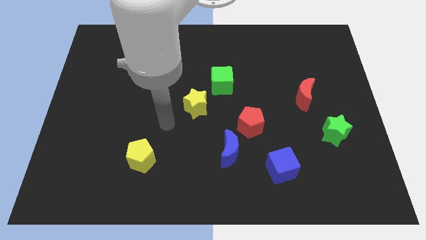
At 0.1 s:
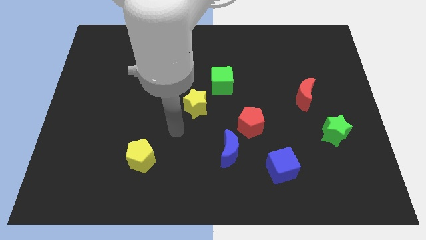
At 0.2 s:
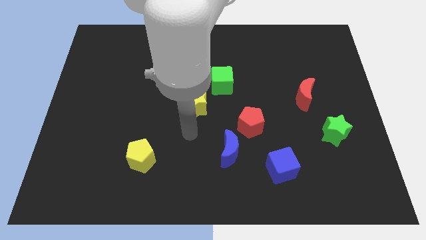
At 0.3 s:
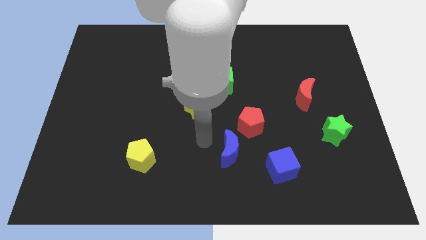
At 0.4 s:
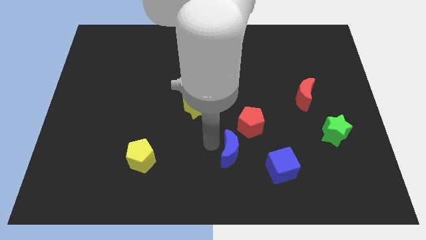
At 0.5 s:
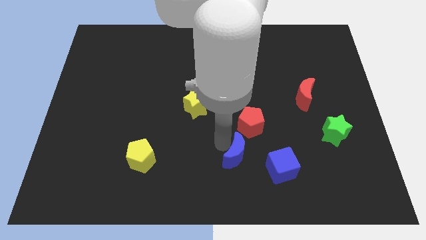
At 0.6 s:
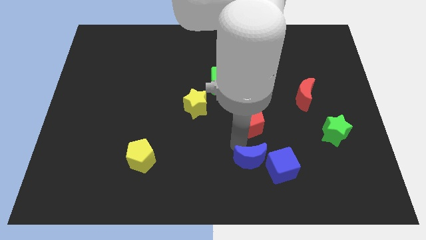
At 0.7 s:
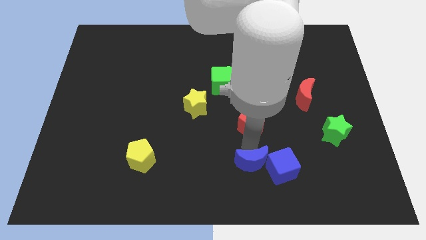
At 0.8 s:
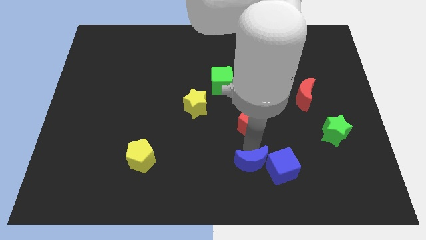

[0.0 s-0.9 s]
move the red pentagon away from the blue moon

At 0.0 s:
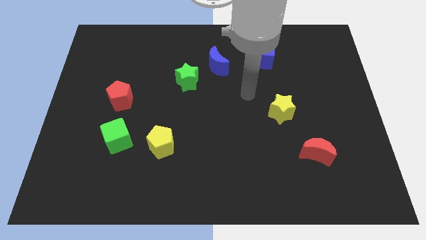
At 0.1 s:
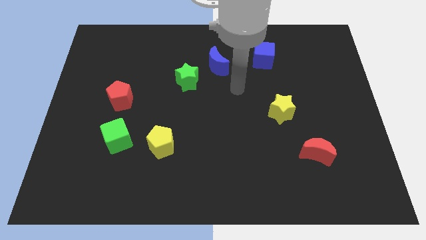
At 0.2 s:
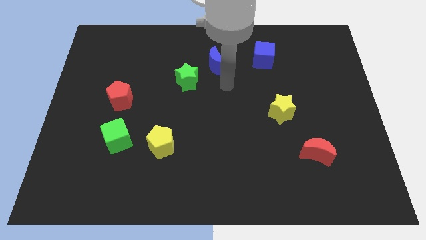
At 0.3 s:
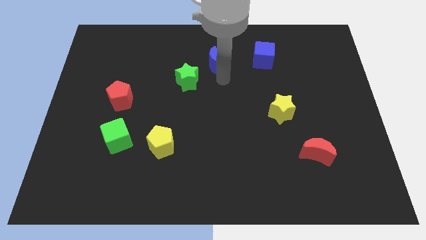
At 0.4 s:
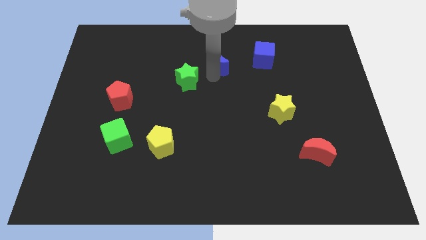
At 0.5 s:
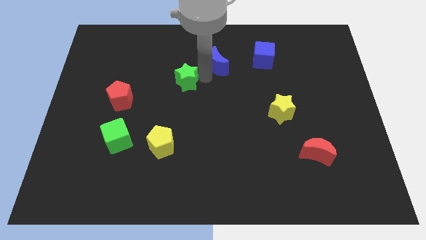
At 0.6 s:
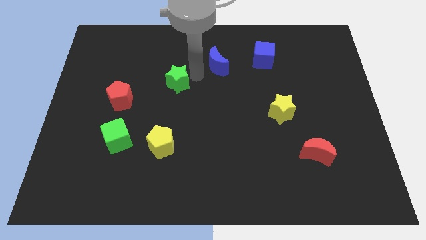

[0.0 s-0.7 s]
separate the blue moon from the green star

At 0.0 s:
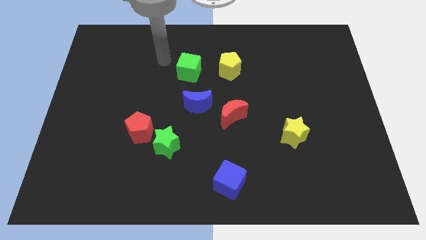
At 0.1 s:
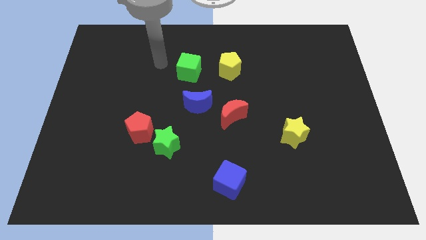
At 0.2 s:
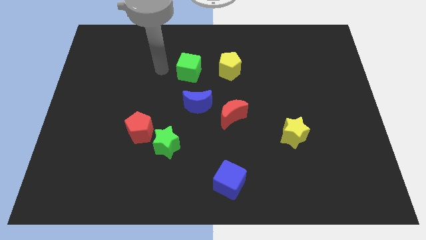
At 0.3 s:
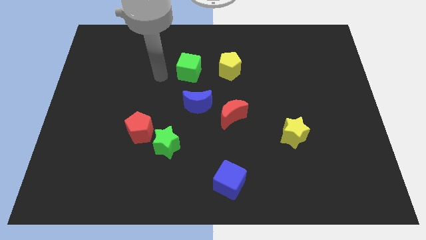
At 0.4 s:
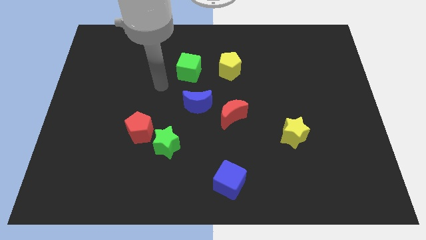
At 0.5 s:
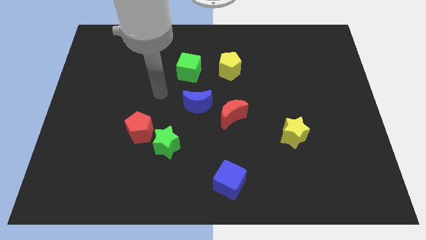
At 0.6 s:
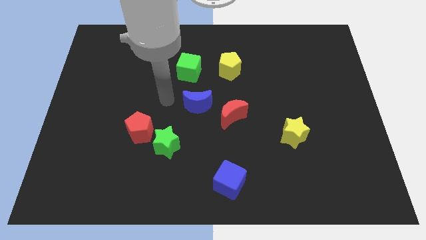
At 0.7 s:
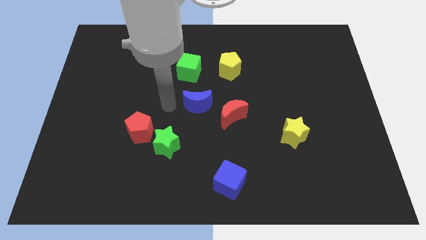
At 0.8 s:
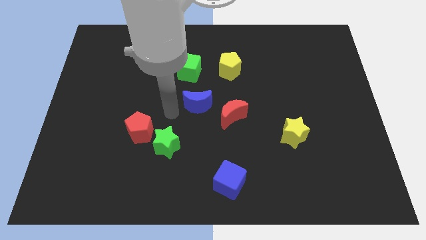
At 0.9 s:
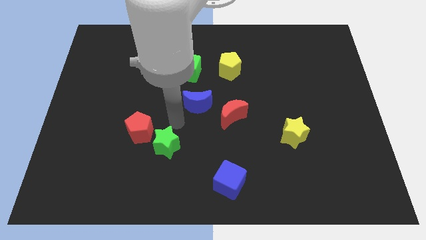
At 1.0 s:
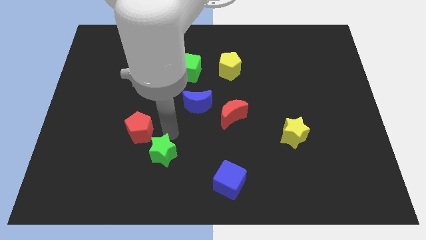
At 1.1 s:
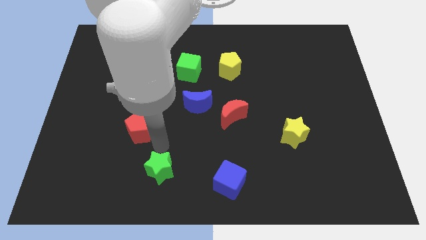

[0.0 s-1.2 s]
move the red pentagon away from the green star

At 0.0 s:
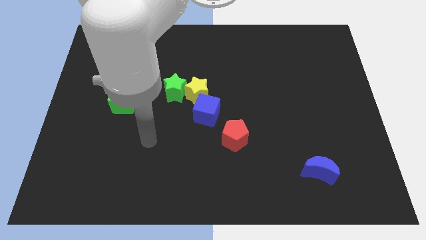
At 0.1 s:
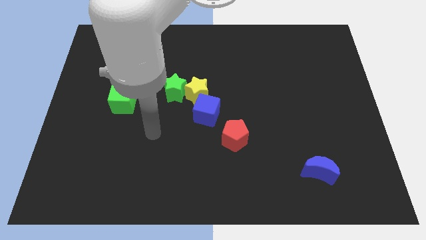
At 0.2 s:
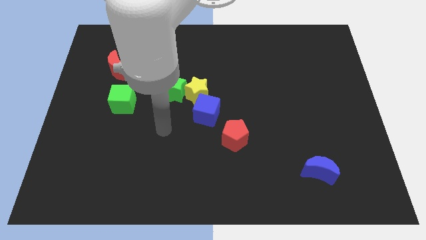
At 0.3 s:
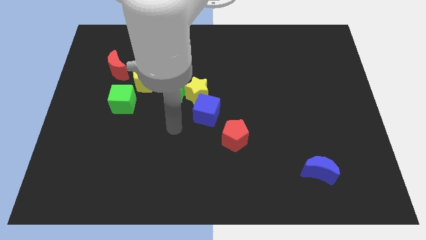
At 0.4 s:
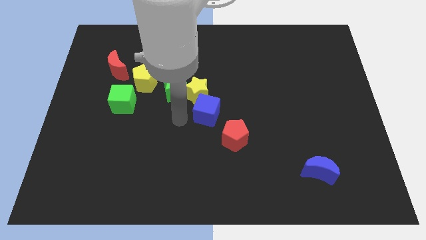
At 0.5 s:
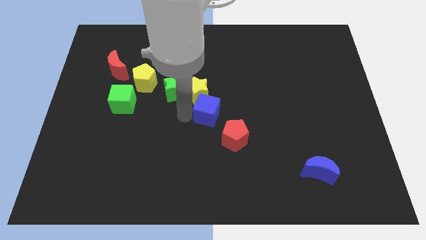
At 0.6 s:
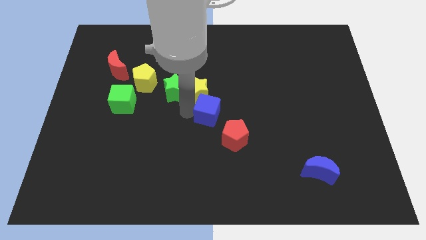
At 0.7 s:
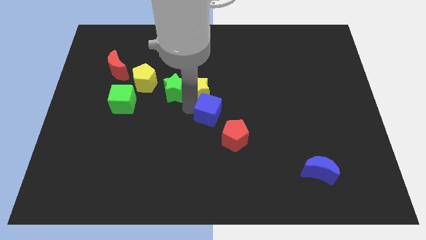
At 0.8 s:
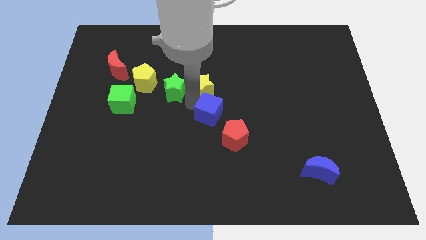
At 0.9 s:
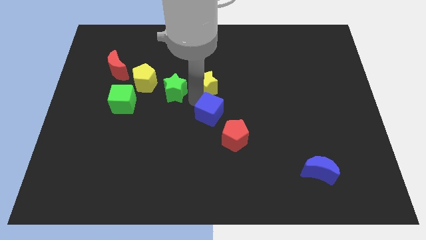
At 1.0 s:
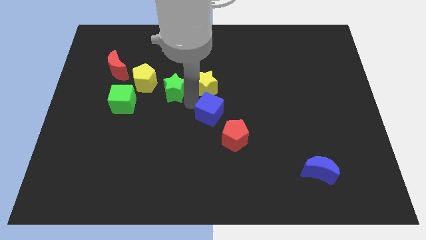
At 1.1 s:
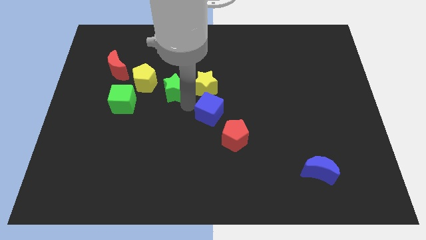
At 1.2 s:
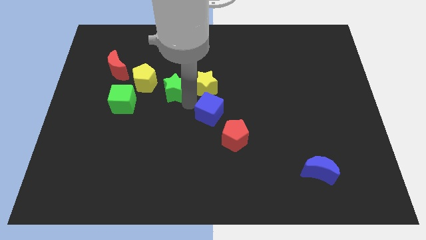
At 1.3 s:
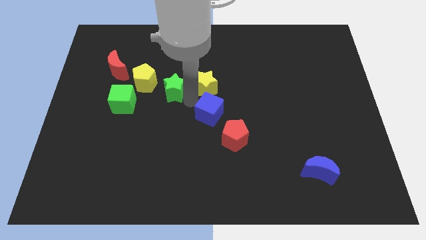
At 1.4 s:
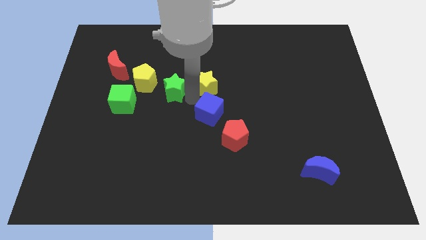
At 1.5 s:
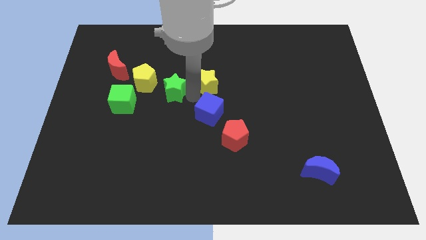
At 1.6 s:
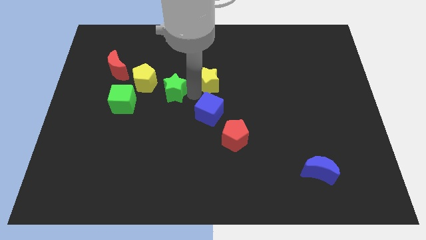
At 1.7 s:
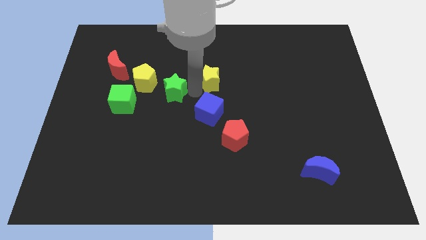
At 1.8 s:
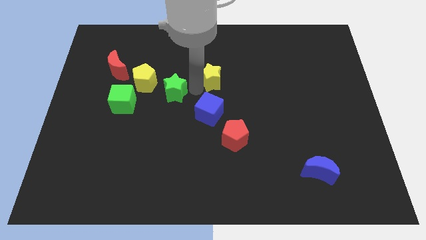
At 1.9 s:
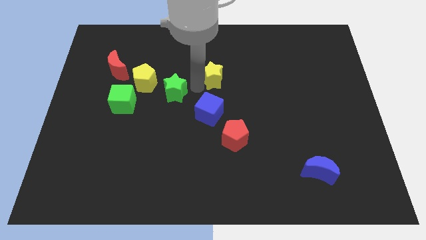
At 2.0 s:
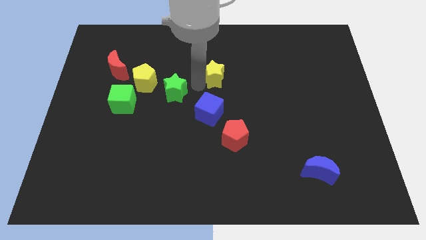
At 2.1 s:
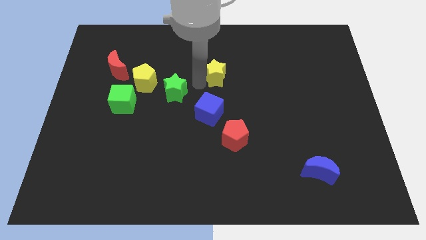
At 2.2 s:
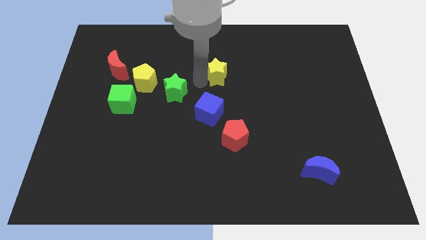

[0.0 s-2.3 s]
move the yellow star away from the green star and blue cube

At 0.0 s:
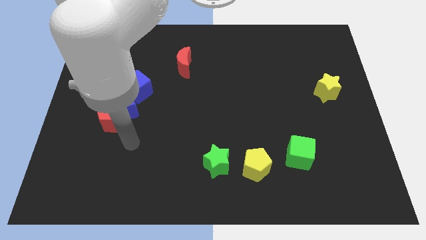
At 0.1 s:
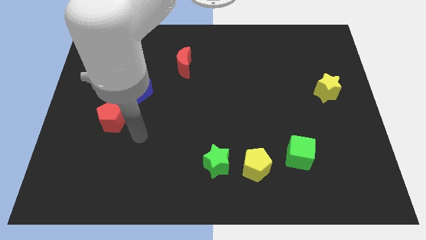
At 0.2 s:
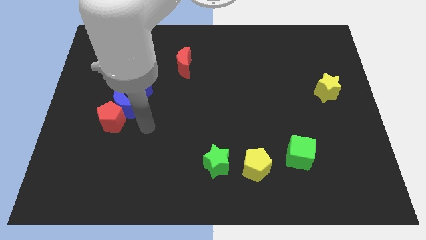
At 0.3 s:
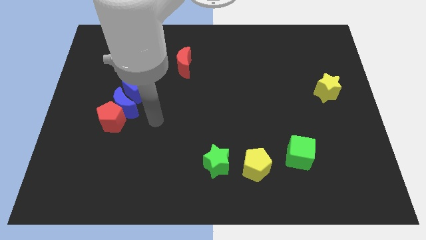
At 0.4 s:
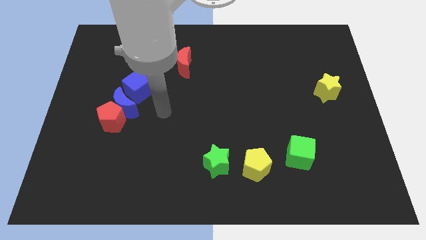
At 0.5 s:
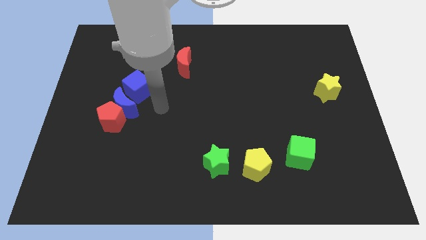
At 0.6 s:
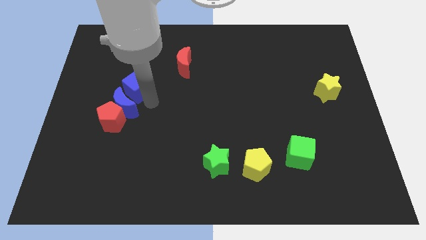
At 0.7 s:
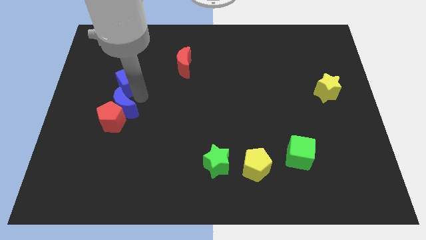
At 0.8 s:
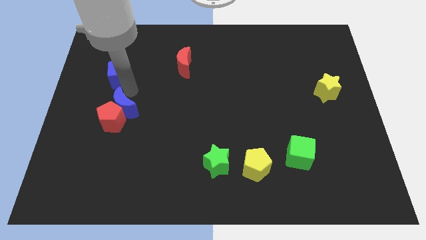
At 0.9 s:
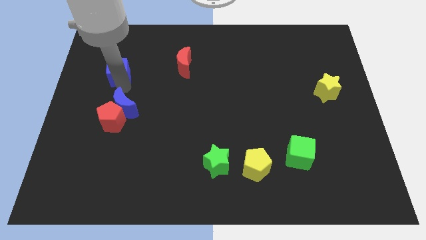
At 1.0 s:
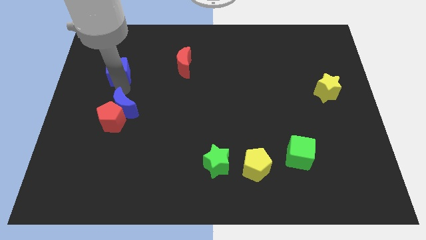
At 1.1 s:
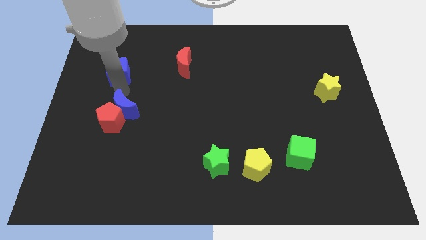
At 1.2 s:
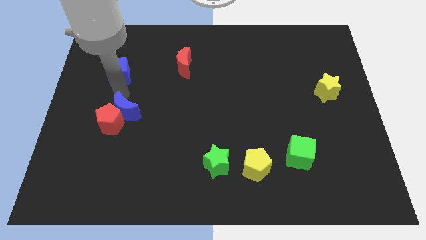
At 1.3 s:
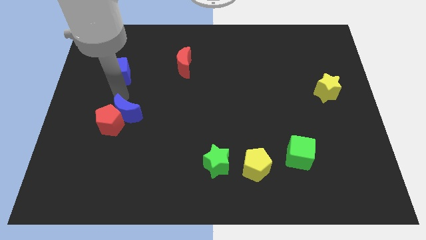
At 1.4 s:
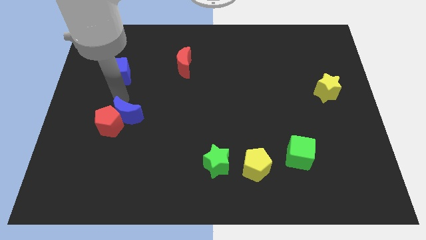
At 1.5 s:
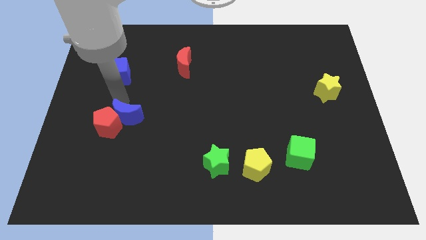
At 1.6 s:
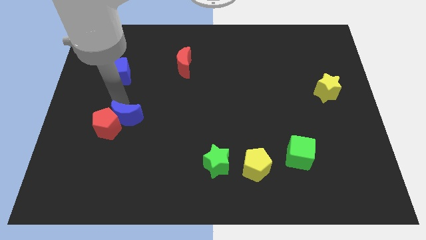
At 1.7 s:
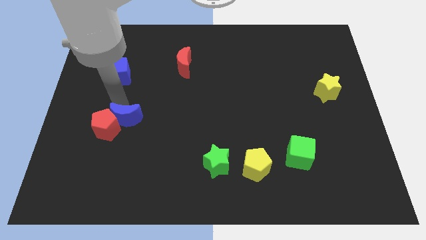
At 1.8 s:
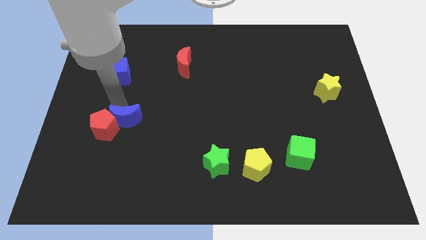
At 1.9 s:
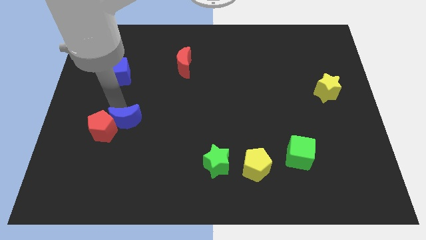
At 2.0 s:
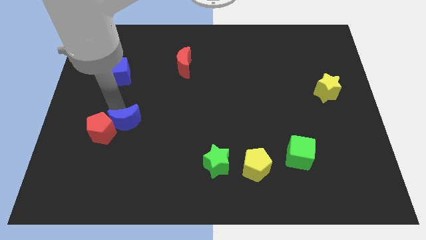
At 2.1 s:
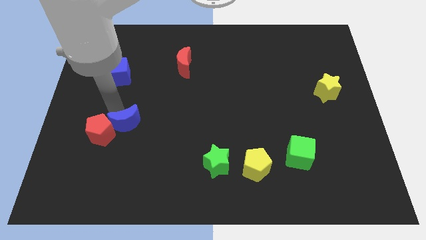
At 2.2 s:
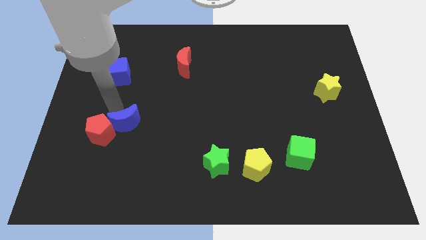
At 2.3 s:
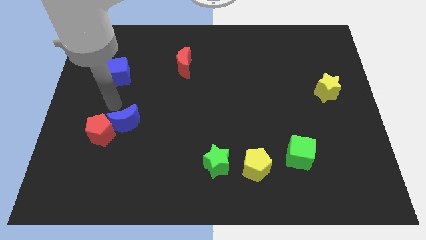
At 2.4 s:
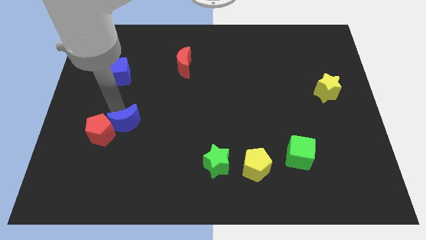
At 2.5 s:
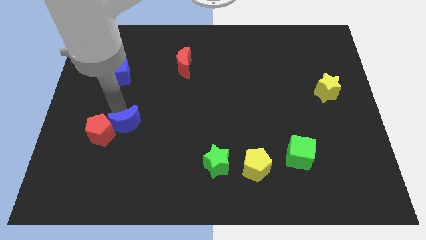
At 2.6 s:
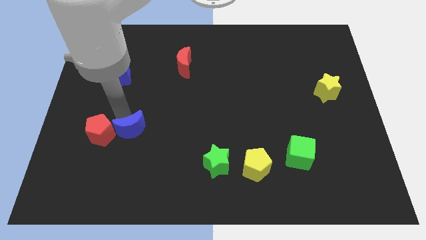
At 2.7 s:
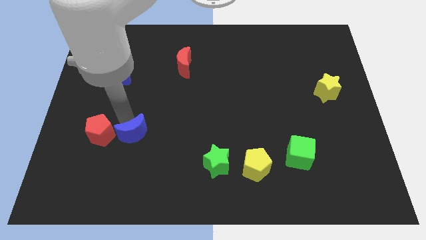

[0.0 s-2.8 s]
pull the blue moon apart from the red pentagon and blue cube

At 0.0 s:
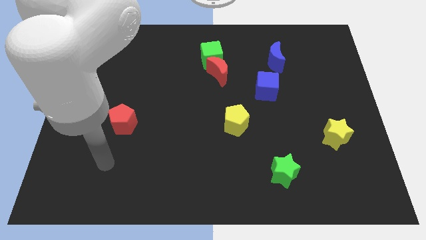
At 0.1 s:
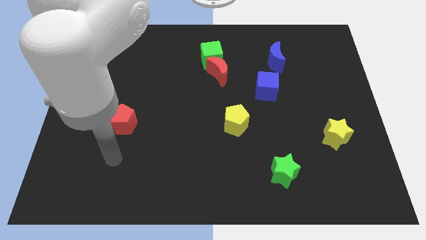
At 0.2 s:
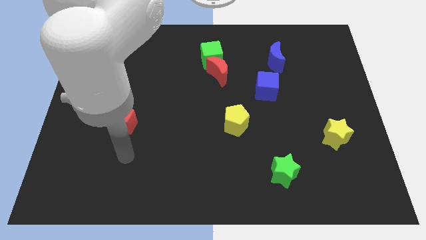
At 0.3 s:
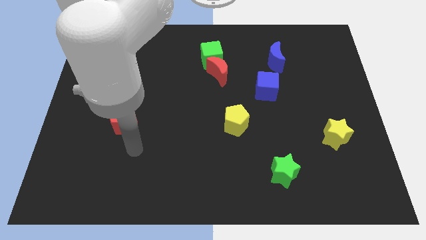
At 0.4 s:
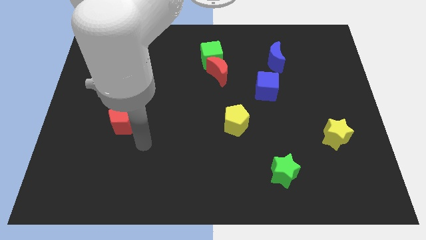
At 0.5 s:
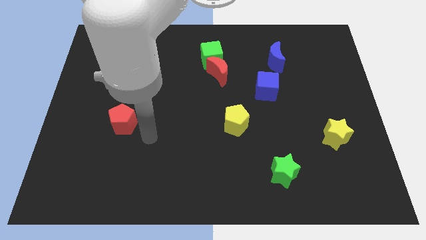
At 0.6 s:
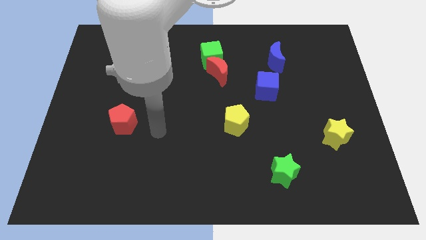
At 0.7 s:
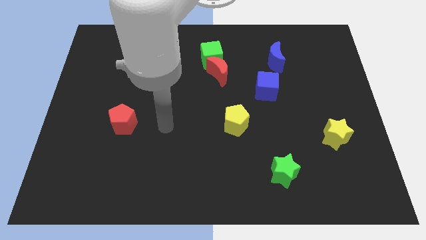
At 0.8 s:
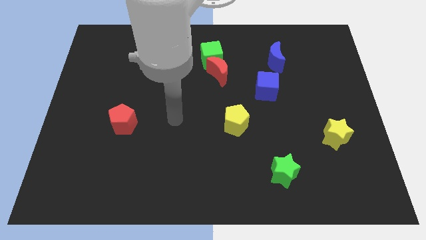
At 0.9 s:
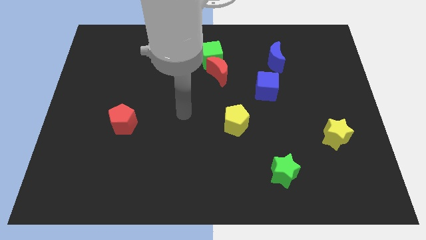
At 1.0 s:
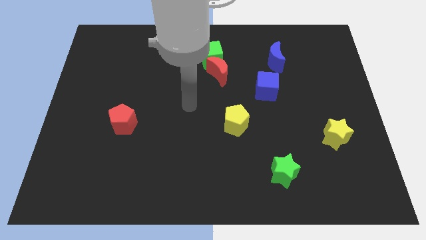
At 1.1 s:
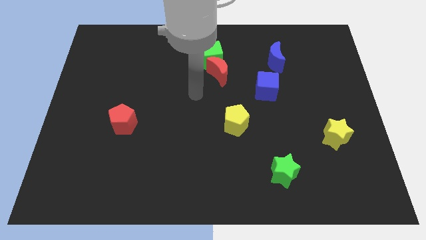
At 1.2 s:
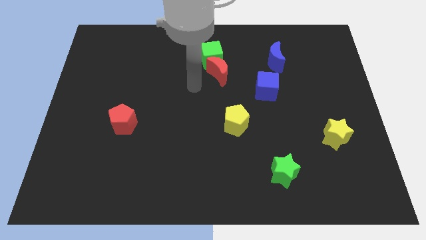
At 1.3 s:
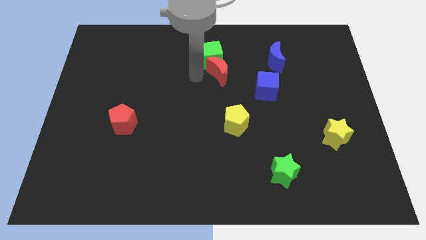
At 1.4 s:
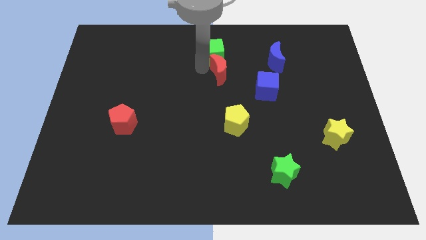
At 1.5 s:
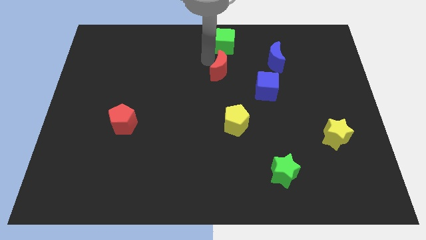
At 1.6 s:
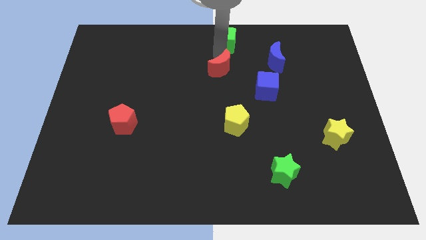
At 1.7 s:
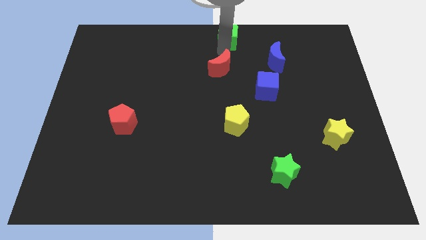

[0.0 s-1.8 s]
move the red moon away from the green cube
